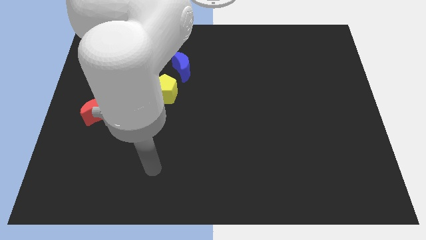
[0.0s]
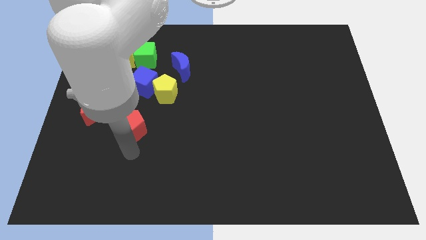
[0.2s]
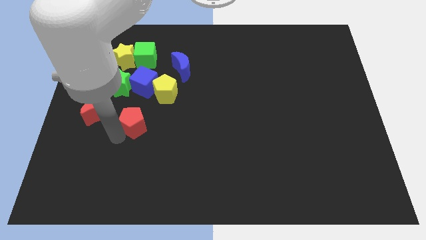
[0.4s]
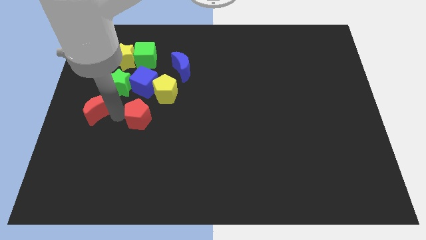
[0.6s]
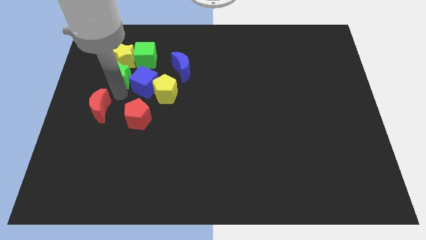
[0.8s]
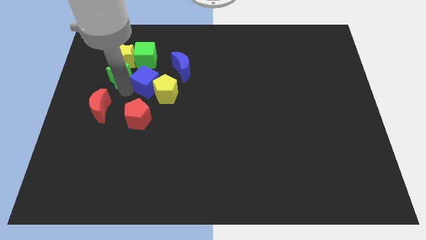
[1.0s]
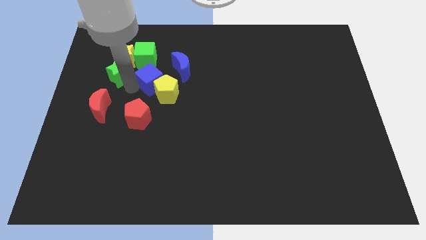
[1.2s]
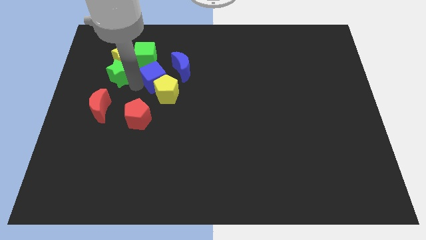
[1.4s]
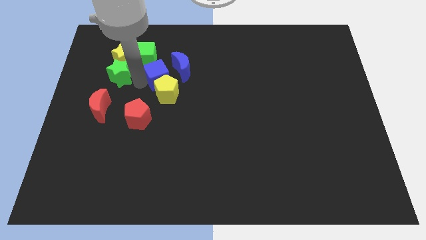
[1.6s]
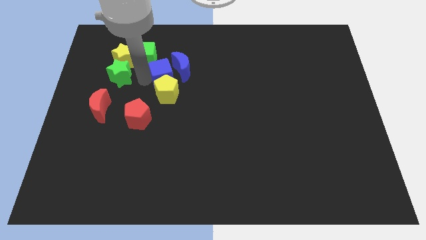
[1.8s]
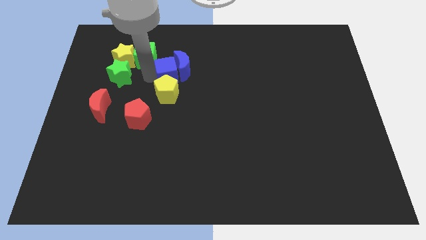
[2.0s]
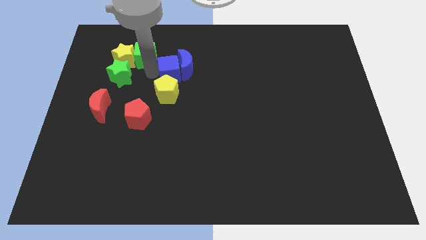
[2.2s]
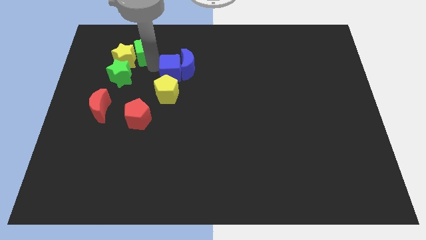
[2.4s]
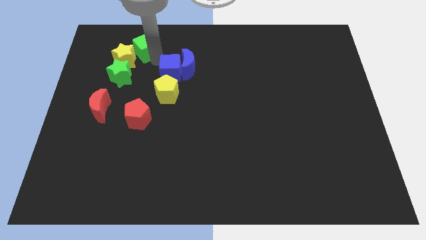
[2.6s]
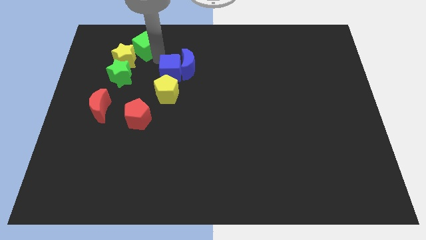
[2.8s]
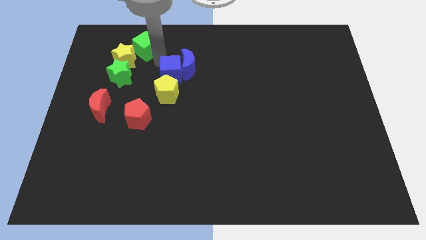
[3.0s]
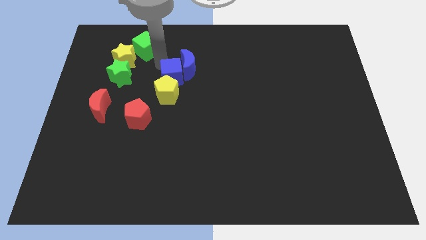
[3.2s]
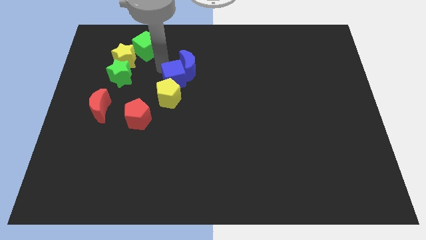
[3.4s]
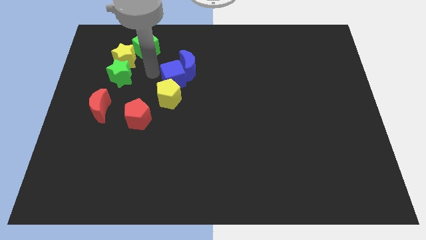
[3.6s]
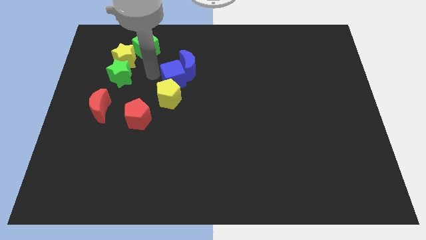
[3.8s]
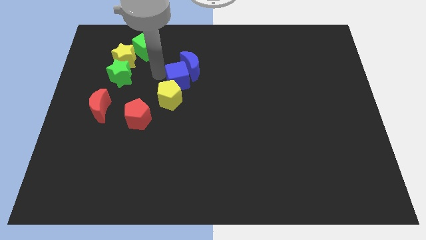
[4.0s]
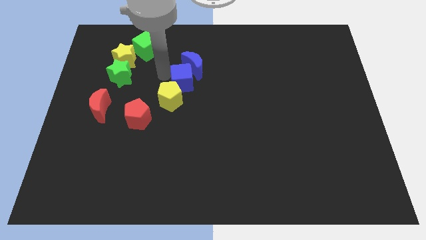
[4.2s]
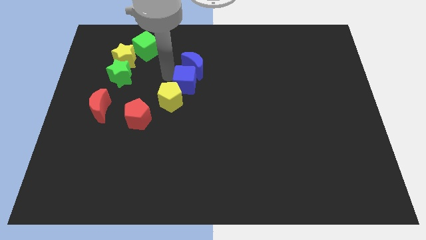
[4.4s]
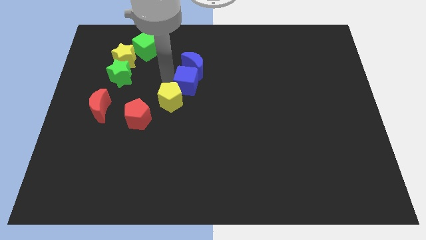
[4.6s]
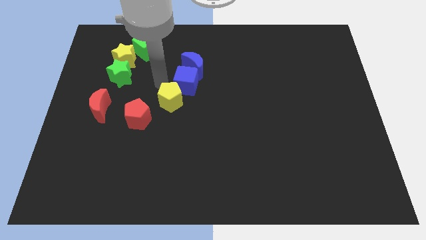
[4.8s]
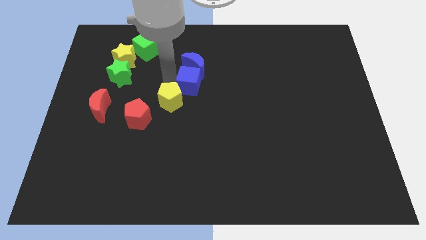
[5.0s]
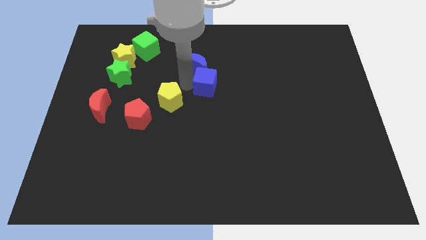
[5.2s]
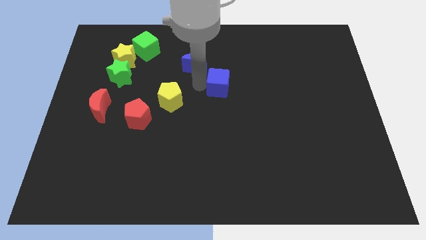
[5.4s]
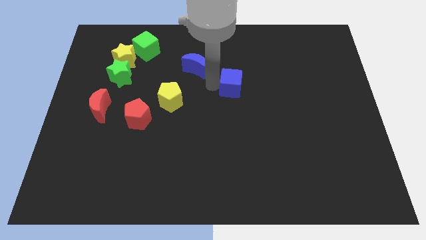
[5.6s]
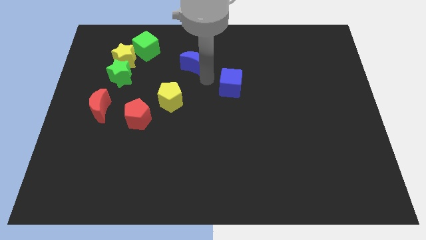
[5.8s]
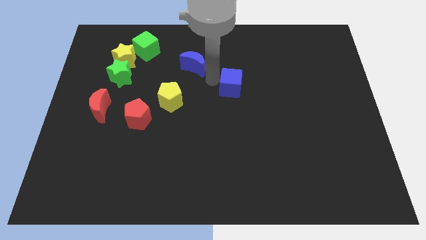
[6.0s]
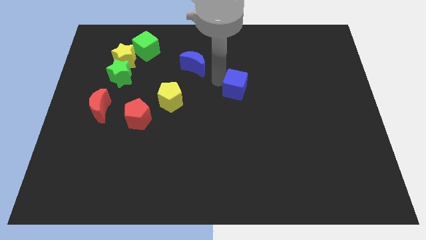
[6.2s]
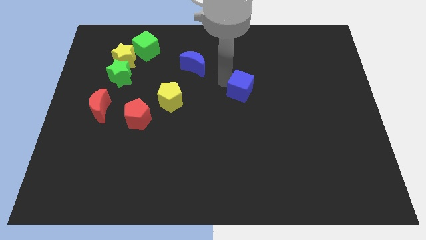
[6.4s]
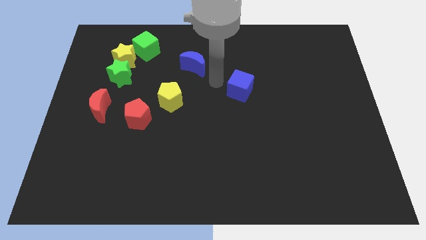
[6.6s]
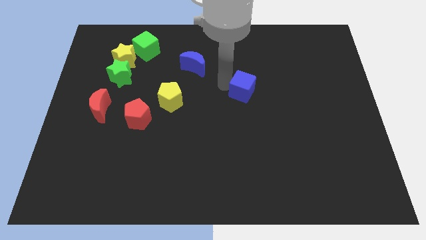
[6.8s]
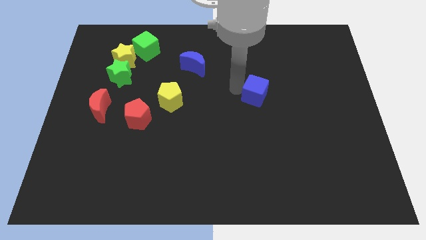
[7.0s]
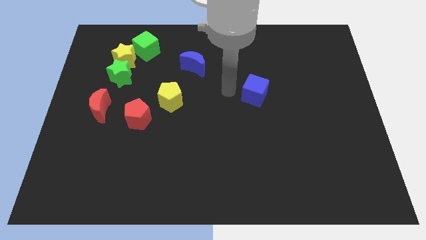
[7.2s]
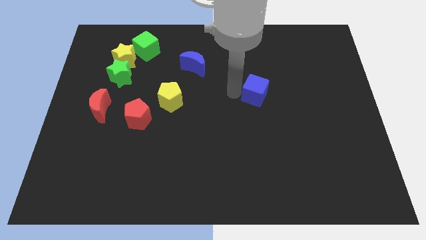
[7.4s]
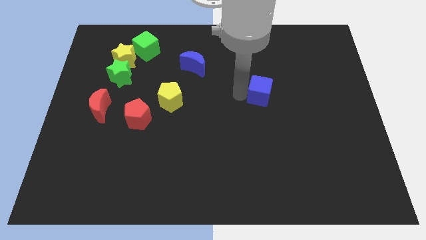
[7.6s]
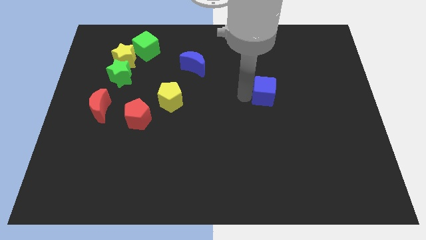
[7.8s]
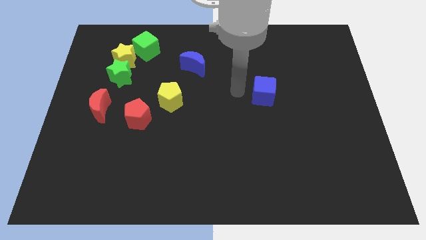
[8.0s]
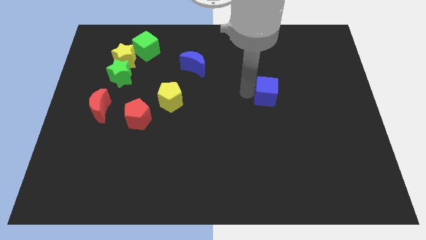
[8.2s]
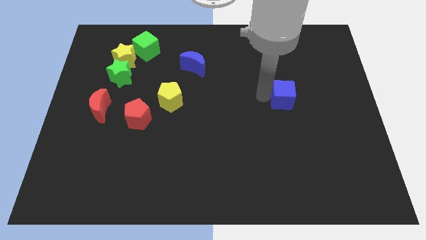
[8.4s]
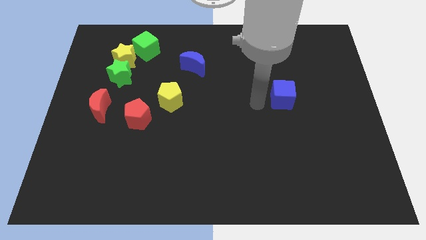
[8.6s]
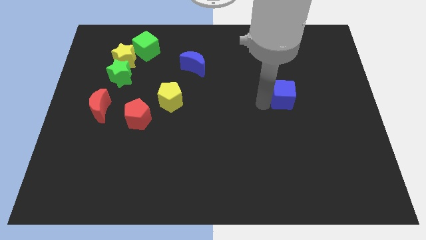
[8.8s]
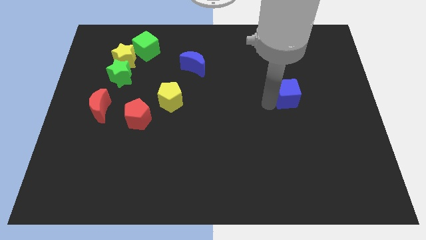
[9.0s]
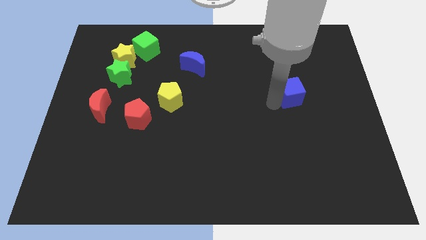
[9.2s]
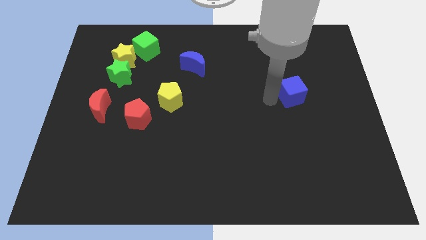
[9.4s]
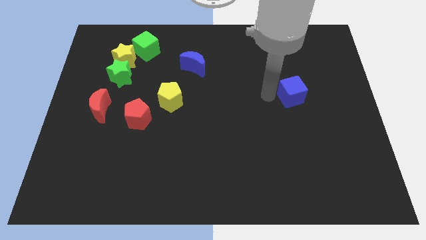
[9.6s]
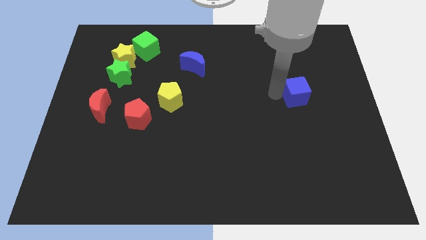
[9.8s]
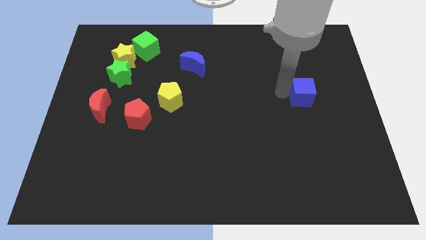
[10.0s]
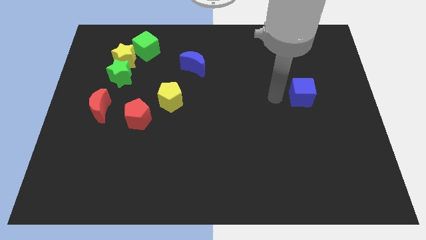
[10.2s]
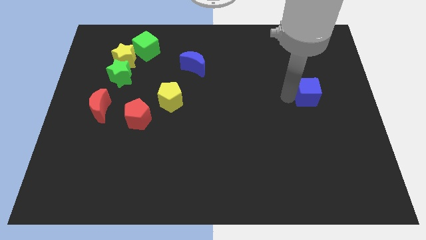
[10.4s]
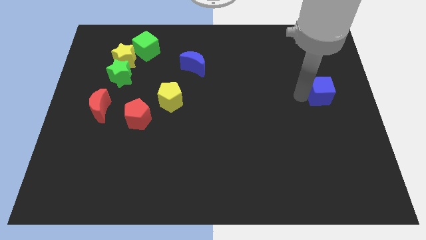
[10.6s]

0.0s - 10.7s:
move the blue cube to the center right

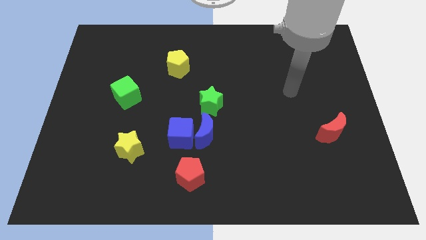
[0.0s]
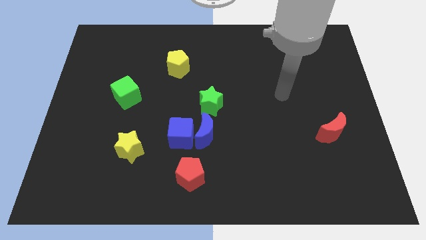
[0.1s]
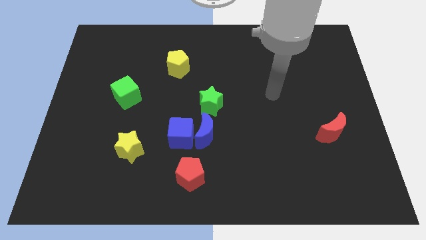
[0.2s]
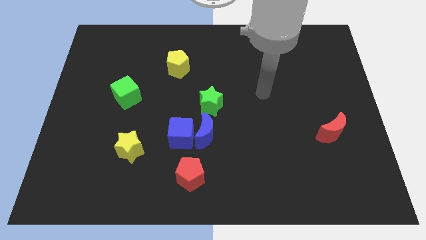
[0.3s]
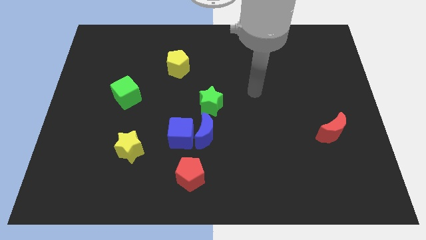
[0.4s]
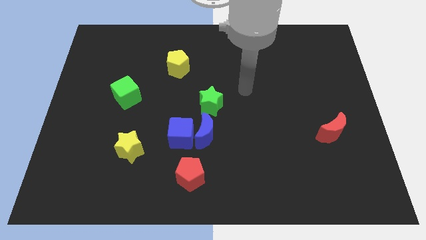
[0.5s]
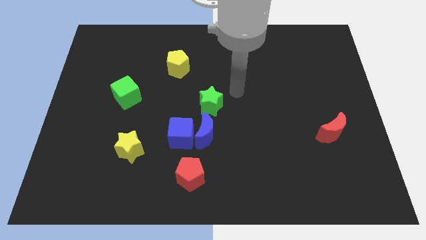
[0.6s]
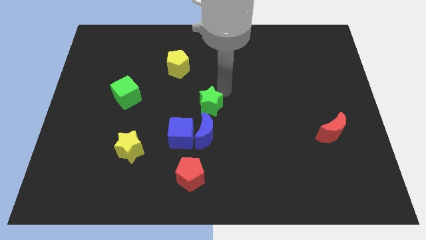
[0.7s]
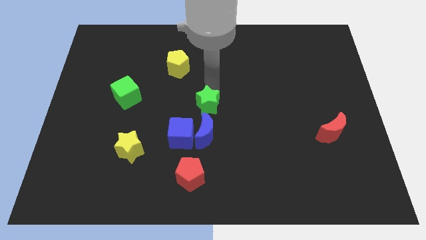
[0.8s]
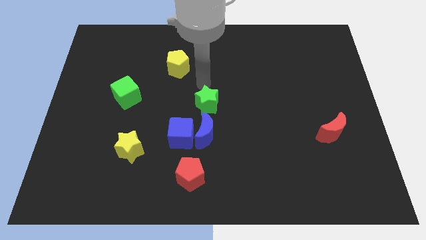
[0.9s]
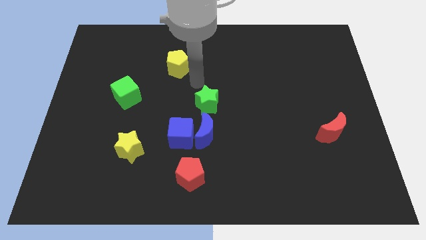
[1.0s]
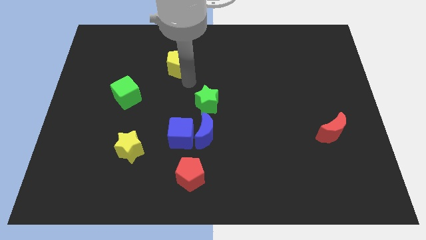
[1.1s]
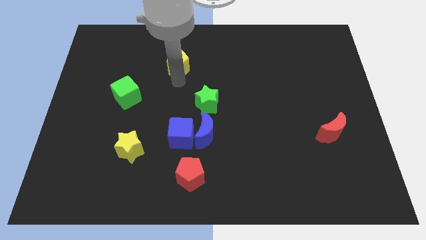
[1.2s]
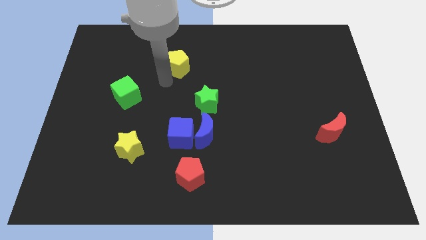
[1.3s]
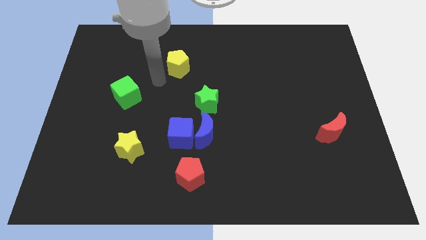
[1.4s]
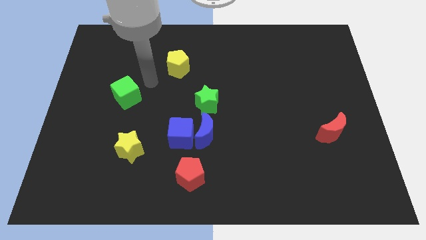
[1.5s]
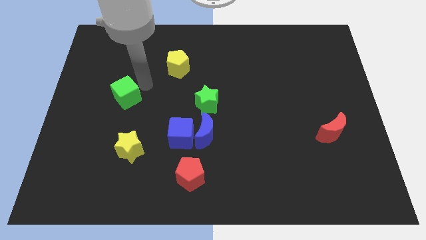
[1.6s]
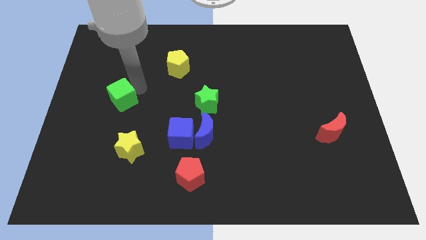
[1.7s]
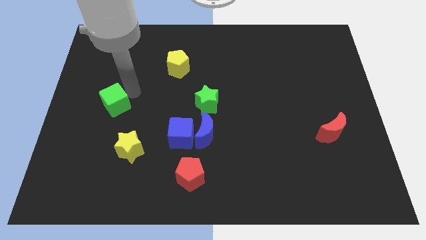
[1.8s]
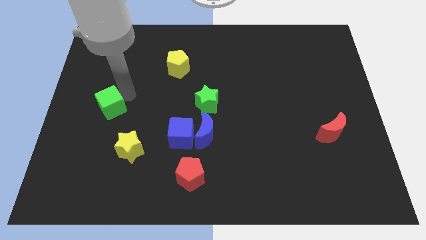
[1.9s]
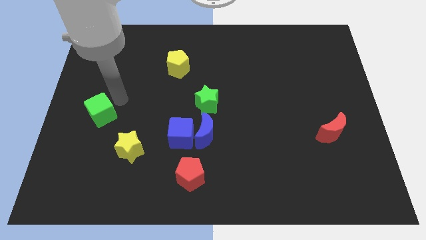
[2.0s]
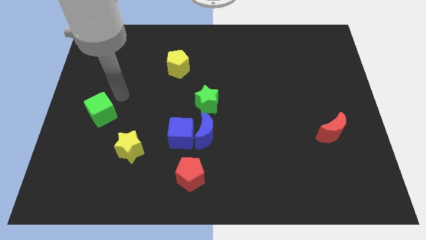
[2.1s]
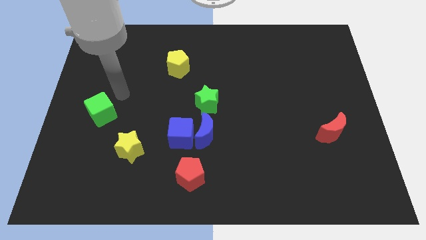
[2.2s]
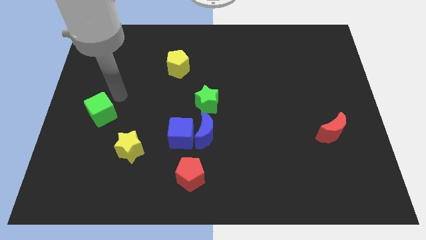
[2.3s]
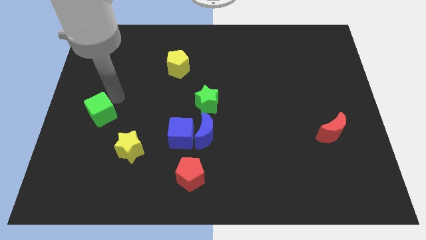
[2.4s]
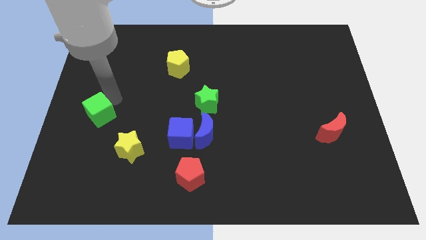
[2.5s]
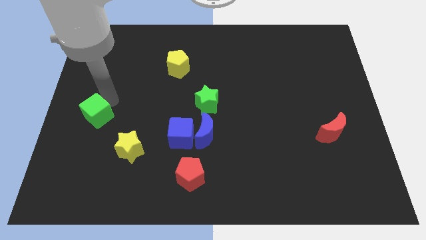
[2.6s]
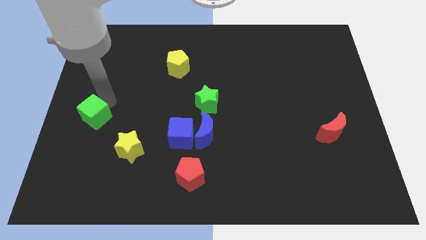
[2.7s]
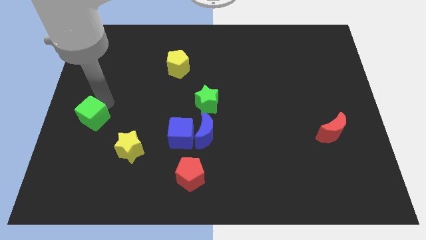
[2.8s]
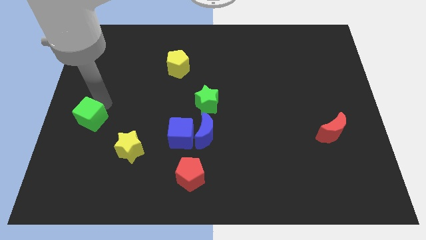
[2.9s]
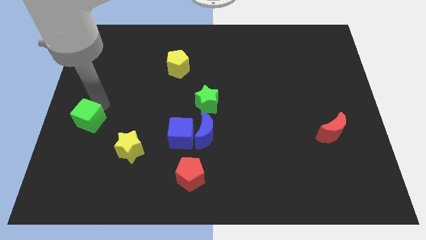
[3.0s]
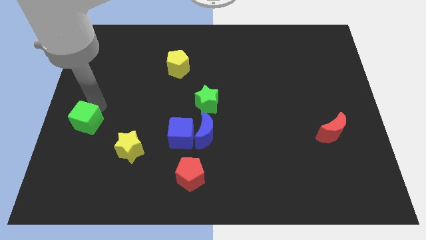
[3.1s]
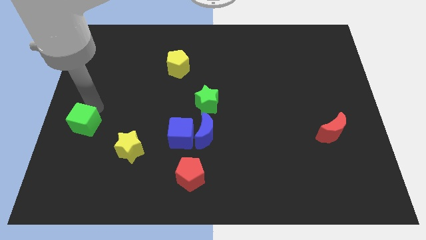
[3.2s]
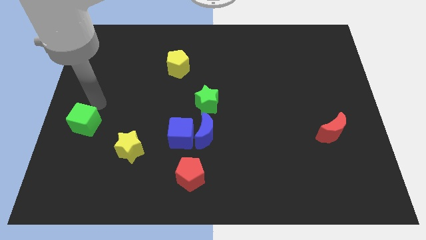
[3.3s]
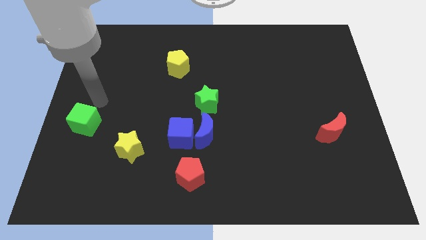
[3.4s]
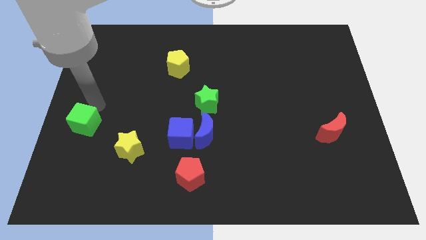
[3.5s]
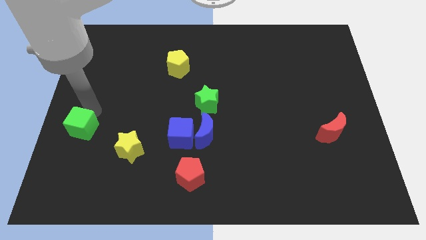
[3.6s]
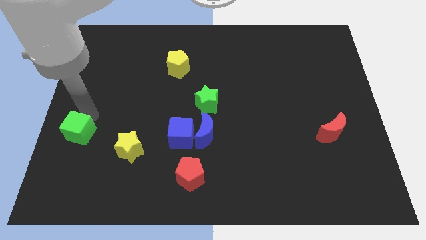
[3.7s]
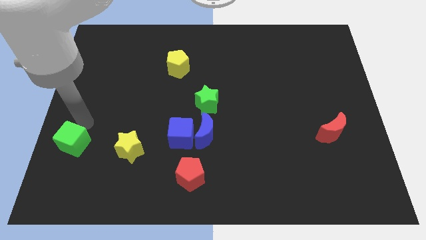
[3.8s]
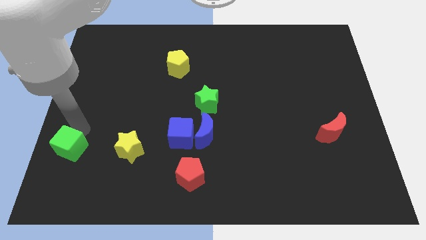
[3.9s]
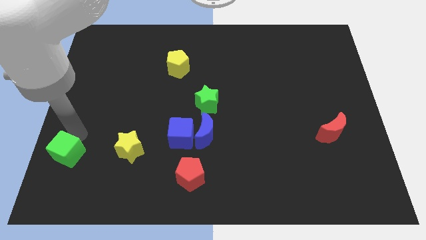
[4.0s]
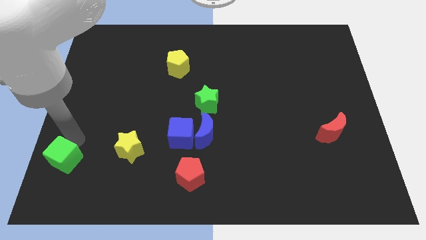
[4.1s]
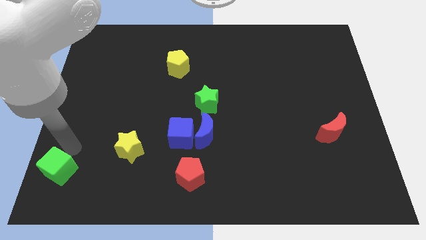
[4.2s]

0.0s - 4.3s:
push the green cube to the bottom left of the board
